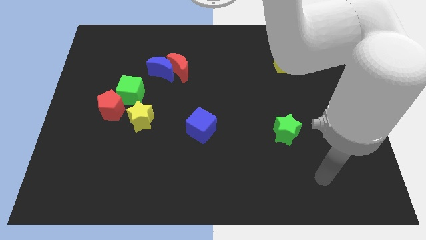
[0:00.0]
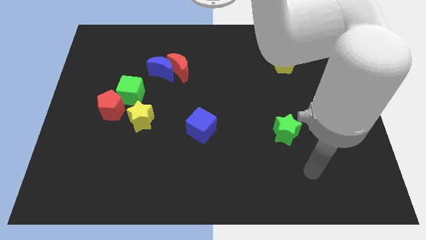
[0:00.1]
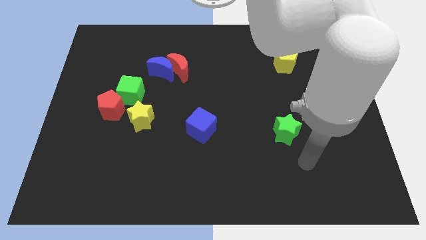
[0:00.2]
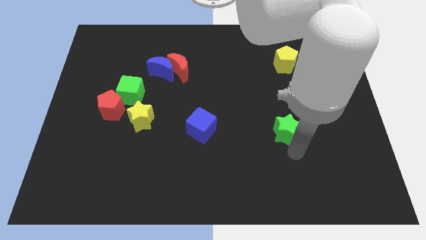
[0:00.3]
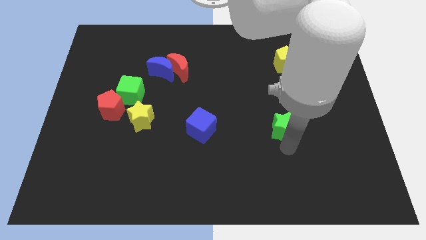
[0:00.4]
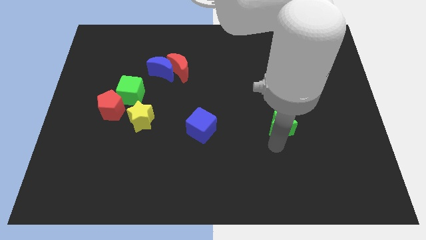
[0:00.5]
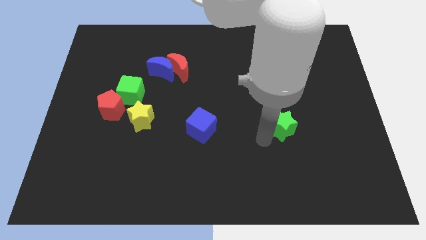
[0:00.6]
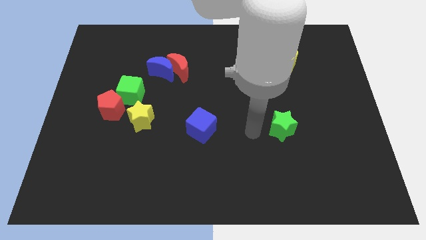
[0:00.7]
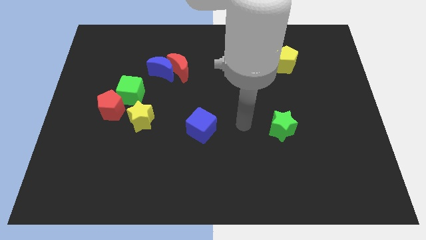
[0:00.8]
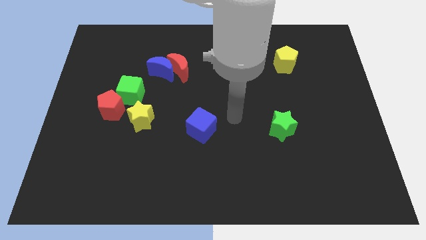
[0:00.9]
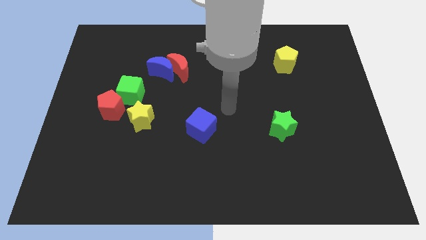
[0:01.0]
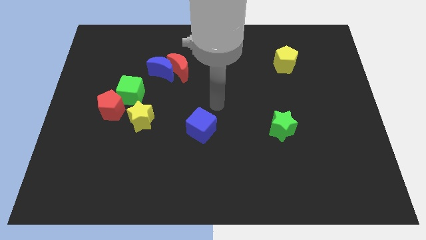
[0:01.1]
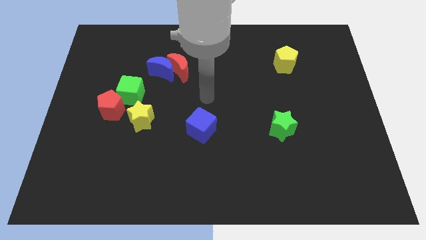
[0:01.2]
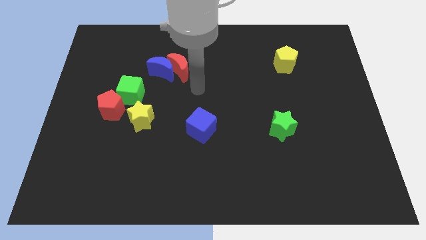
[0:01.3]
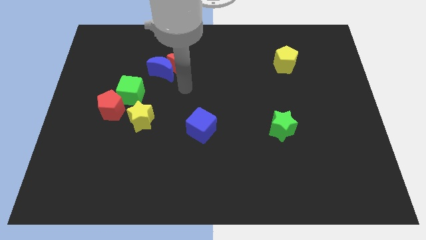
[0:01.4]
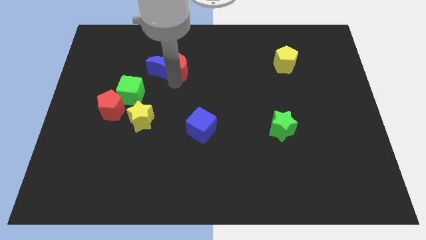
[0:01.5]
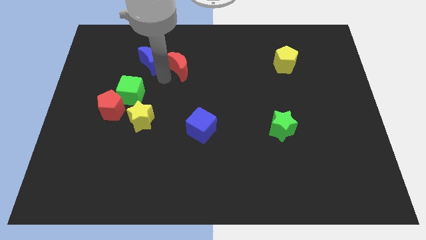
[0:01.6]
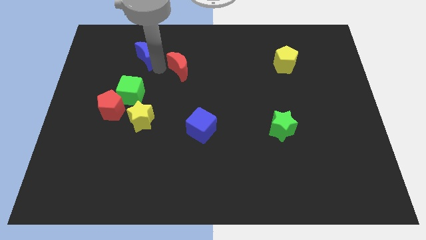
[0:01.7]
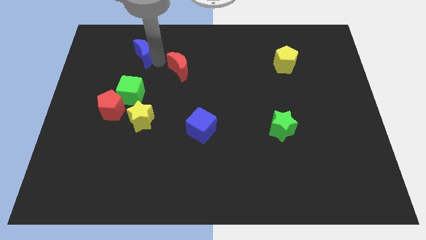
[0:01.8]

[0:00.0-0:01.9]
separate the red moon from the blue moon

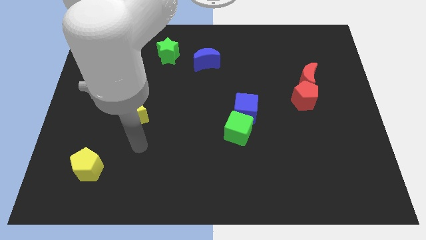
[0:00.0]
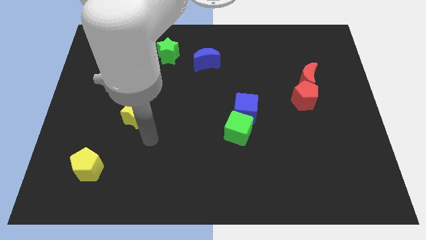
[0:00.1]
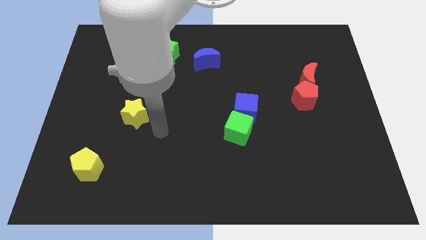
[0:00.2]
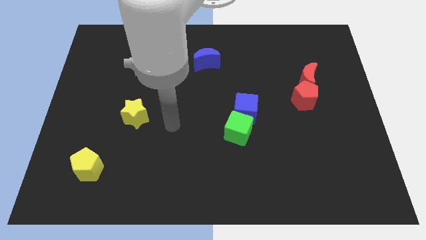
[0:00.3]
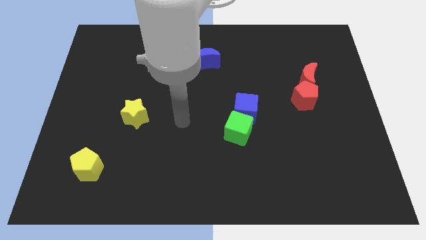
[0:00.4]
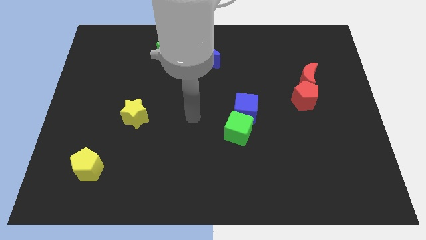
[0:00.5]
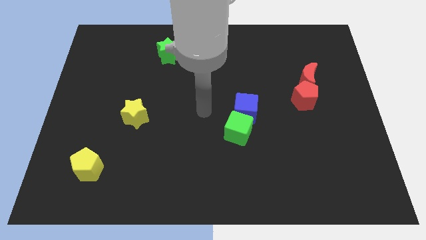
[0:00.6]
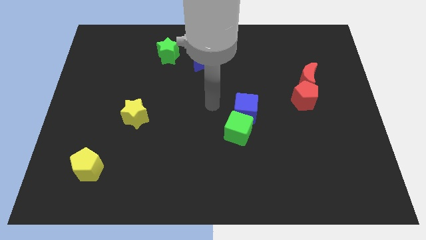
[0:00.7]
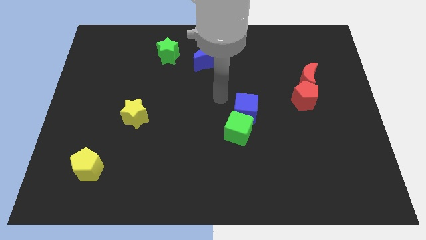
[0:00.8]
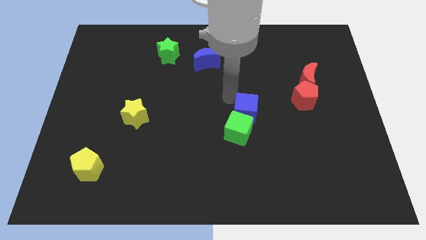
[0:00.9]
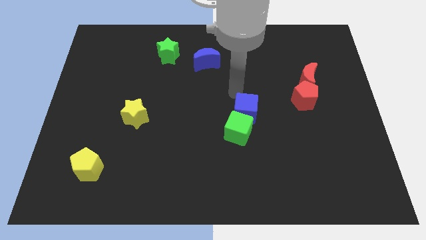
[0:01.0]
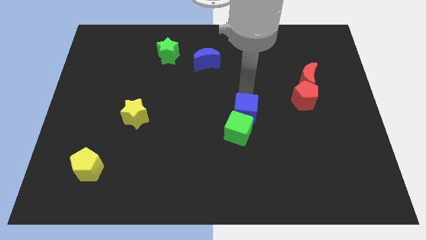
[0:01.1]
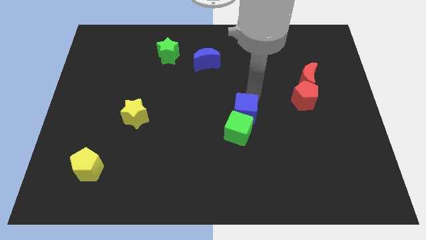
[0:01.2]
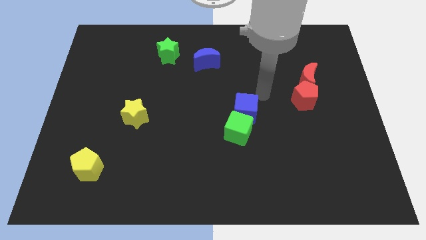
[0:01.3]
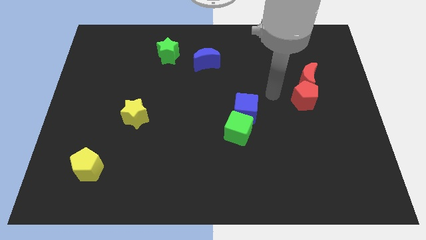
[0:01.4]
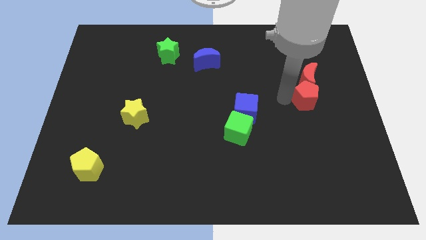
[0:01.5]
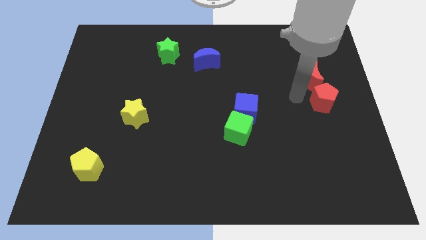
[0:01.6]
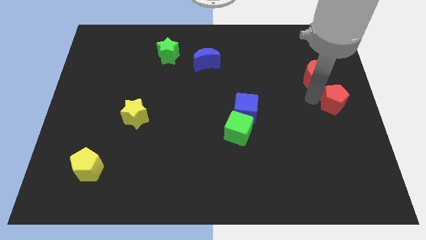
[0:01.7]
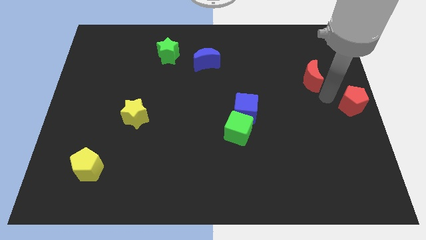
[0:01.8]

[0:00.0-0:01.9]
separate the red moon from the red pentagon

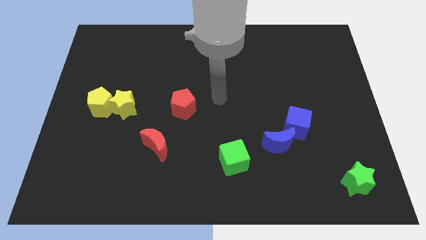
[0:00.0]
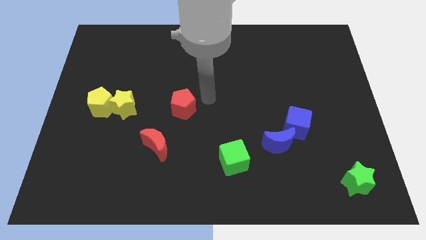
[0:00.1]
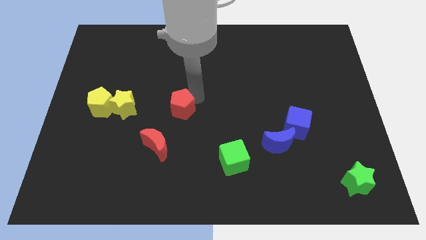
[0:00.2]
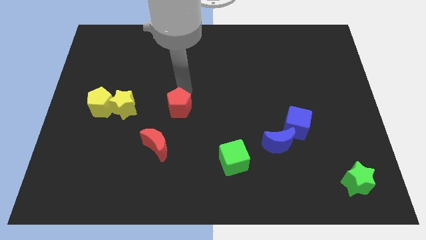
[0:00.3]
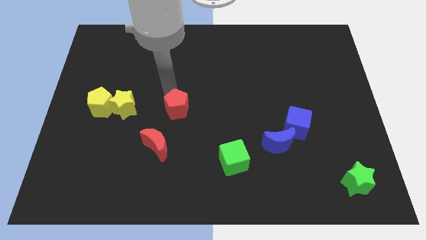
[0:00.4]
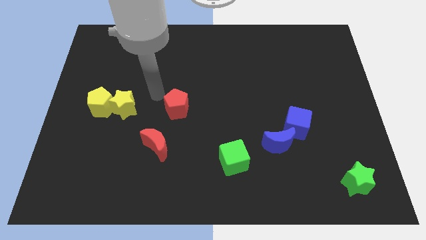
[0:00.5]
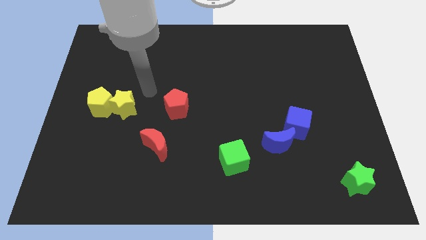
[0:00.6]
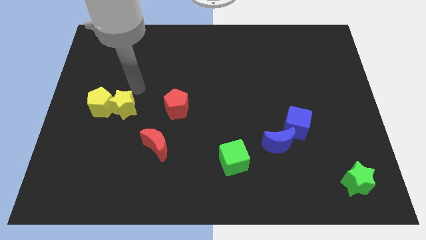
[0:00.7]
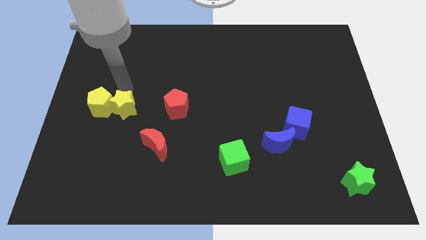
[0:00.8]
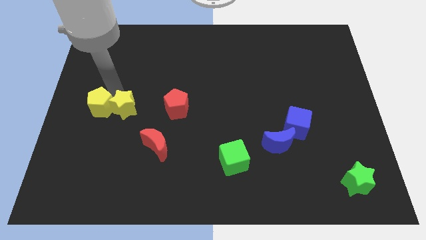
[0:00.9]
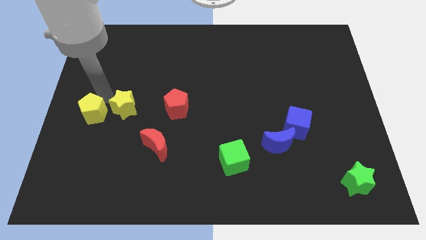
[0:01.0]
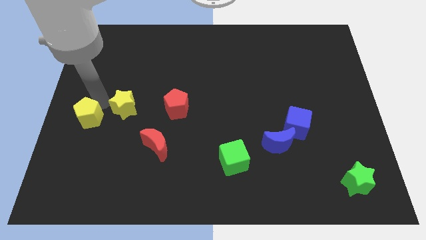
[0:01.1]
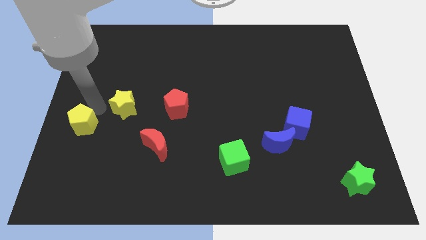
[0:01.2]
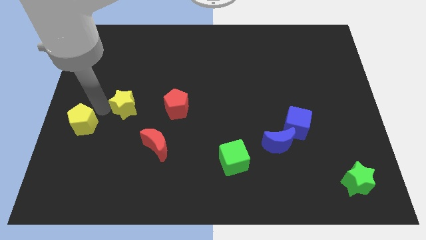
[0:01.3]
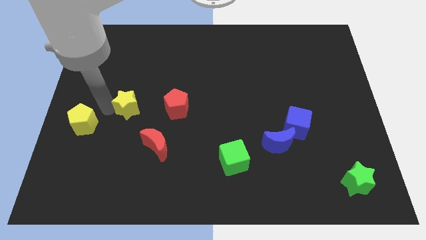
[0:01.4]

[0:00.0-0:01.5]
separate the yellow star from the yellow pentagon

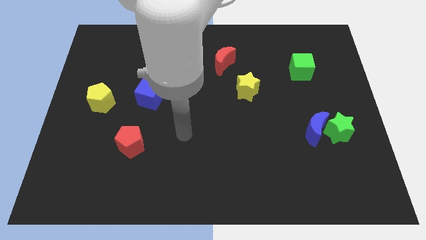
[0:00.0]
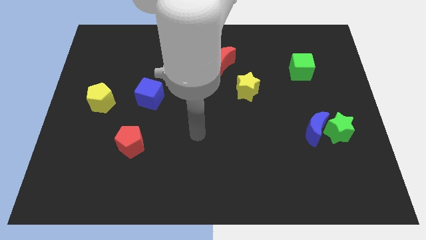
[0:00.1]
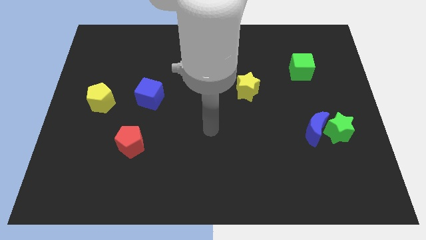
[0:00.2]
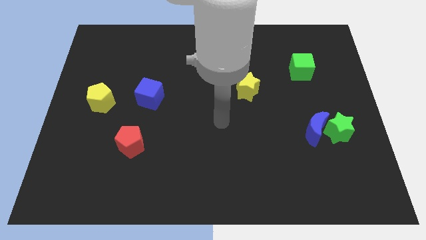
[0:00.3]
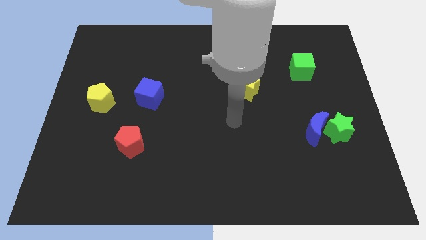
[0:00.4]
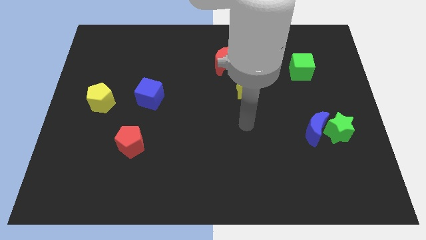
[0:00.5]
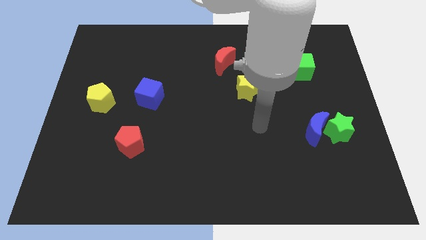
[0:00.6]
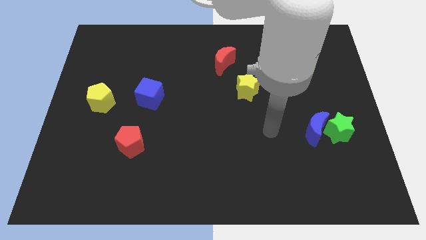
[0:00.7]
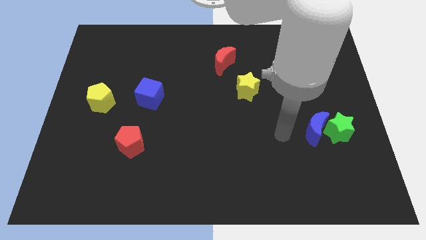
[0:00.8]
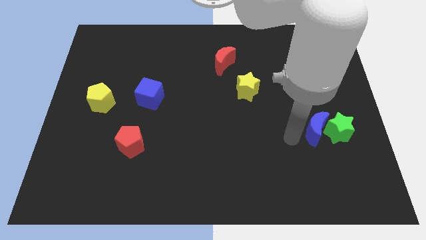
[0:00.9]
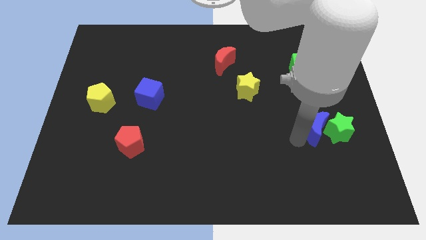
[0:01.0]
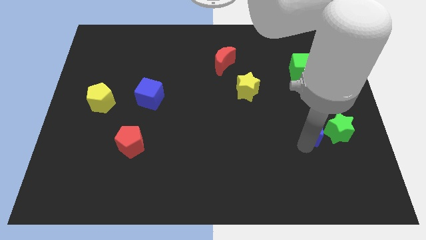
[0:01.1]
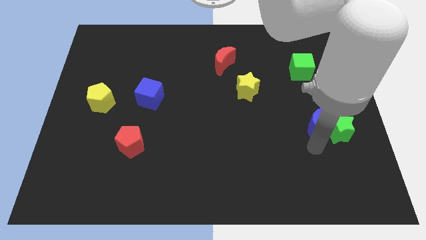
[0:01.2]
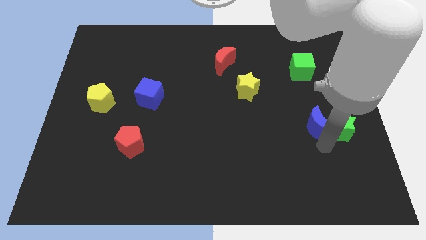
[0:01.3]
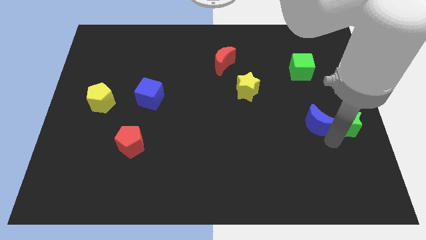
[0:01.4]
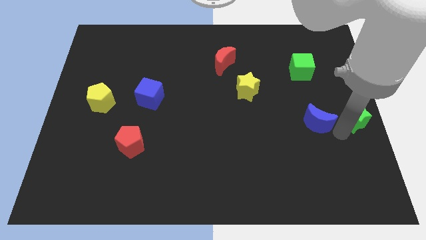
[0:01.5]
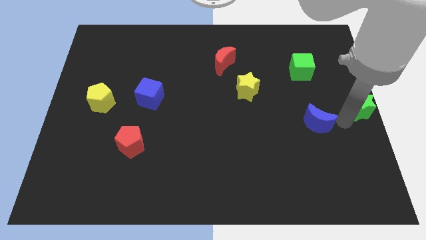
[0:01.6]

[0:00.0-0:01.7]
pull the blue moon apart from the green star

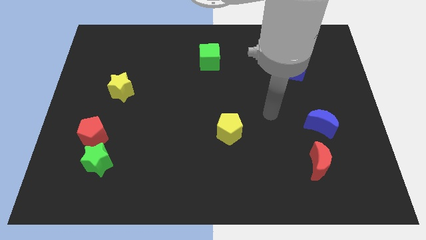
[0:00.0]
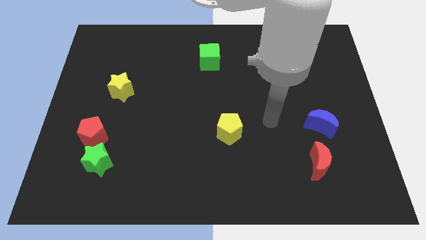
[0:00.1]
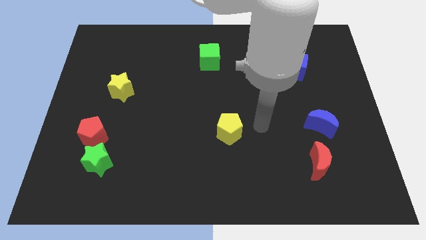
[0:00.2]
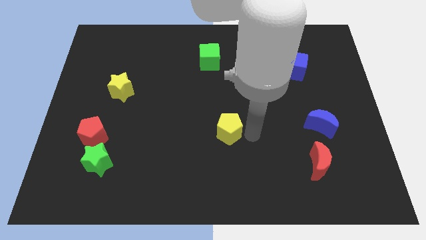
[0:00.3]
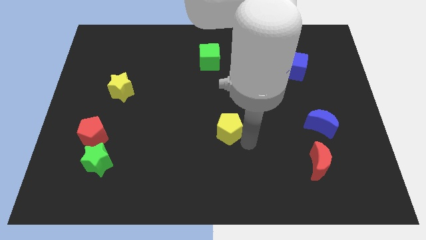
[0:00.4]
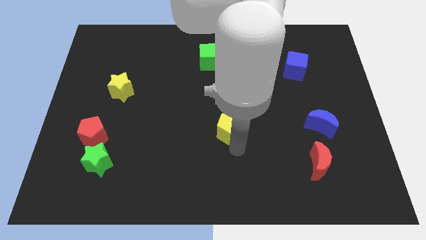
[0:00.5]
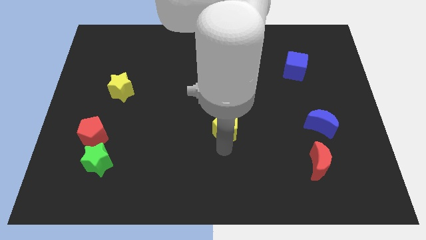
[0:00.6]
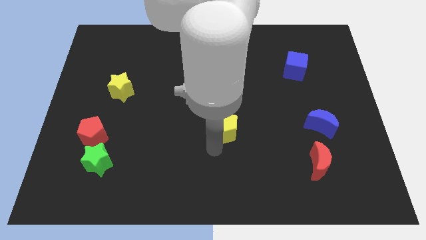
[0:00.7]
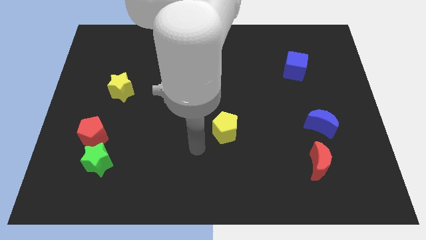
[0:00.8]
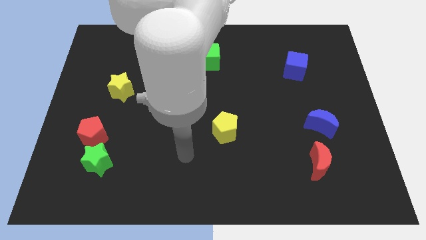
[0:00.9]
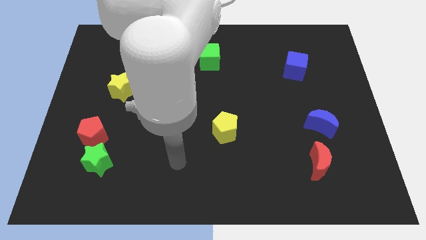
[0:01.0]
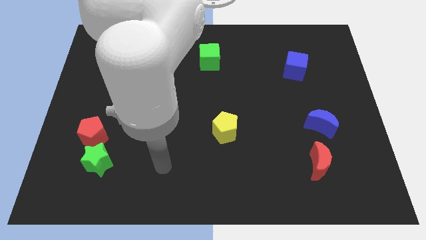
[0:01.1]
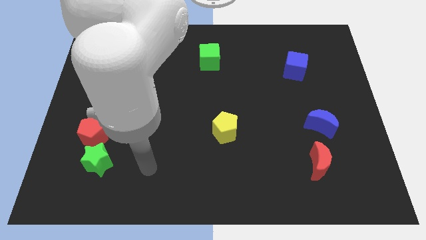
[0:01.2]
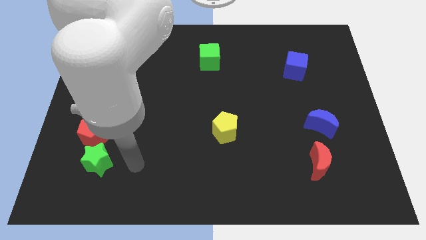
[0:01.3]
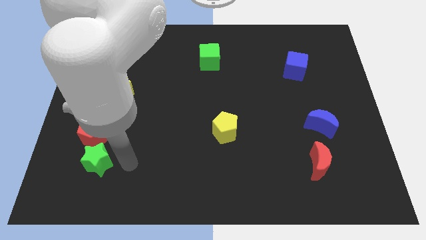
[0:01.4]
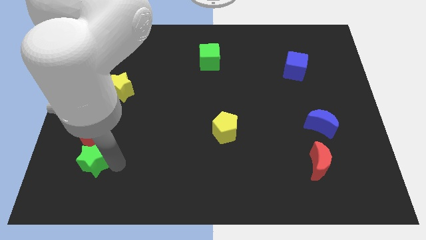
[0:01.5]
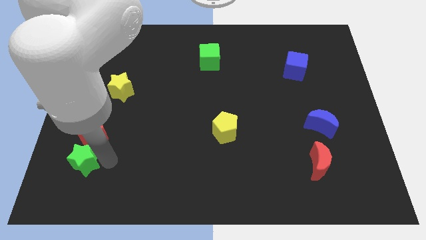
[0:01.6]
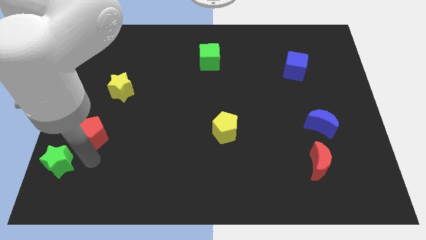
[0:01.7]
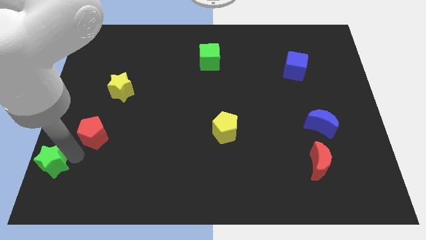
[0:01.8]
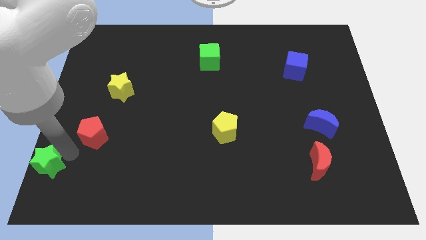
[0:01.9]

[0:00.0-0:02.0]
move the red pentagon away from the green star

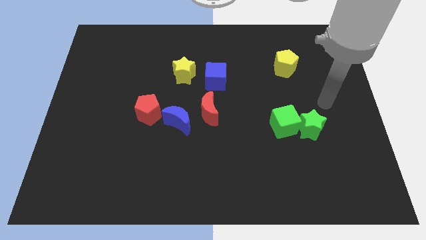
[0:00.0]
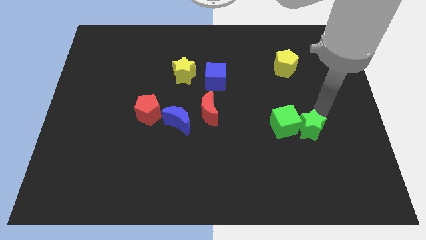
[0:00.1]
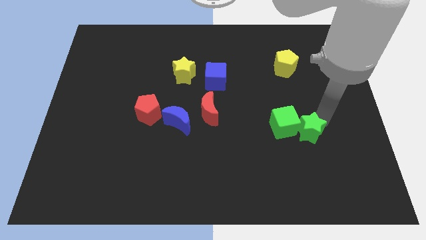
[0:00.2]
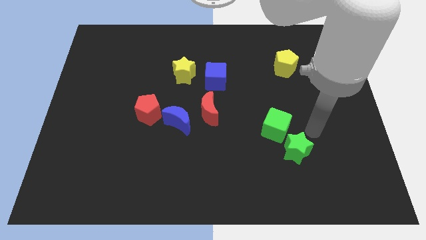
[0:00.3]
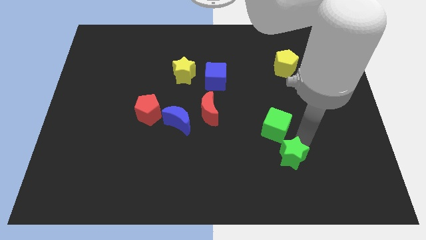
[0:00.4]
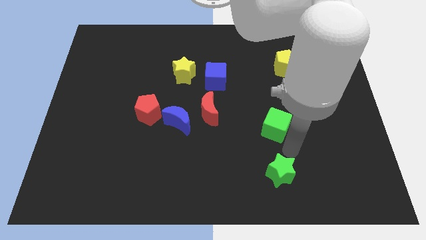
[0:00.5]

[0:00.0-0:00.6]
pull the green cube apart from the green star
